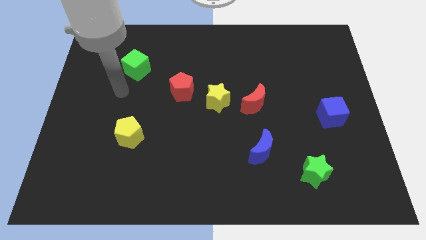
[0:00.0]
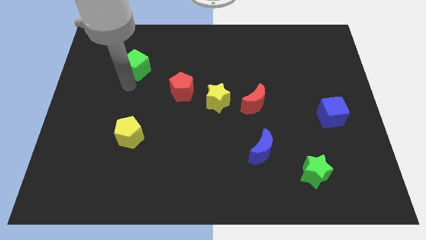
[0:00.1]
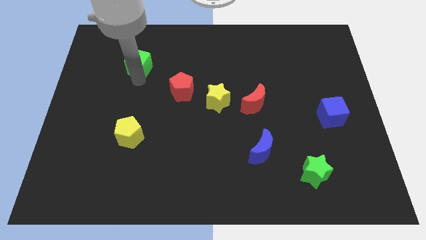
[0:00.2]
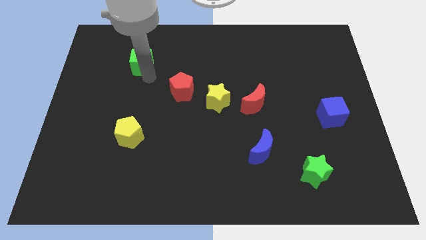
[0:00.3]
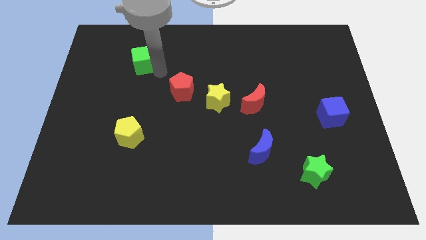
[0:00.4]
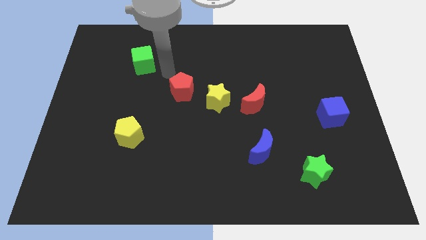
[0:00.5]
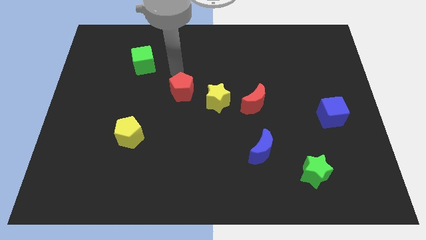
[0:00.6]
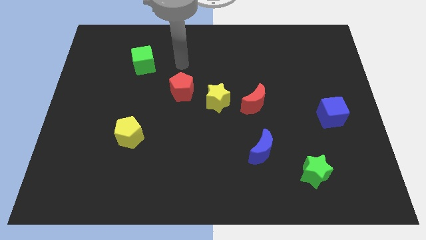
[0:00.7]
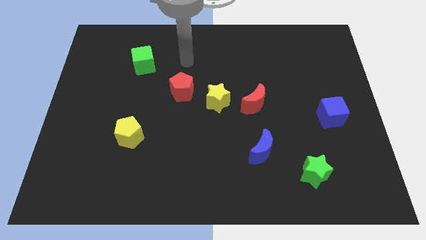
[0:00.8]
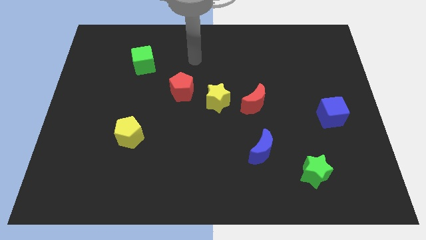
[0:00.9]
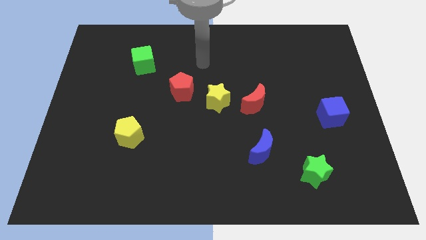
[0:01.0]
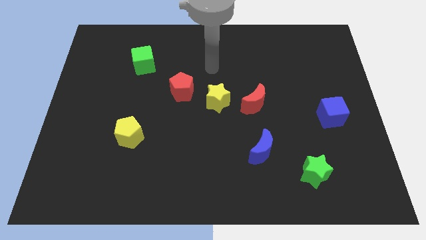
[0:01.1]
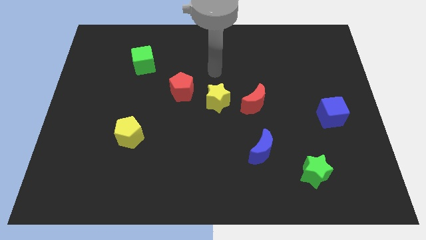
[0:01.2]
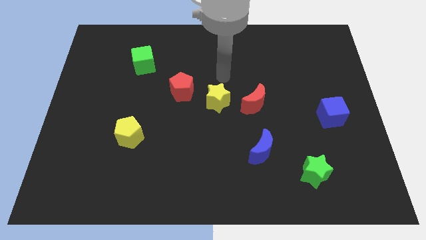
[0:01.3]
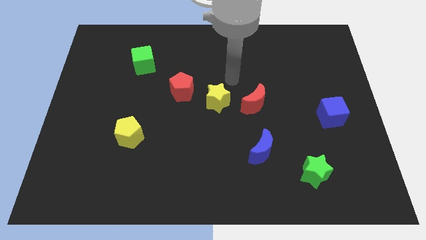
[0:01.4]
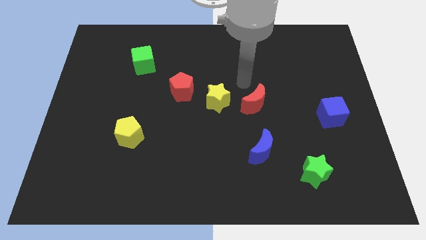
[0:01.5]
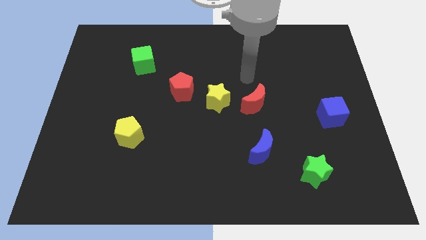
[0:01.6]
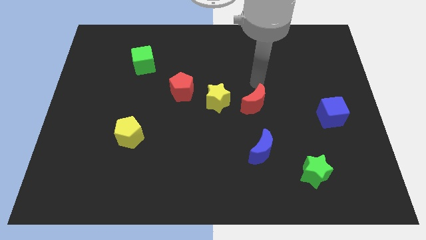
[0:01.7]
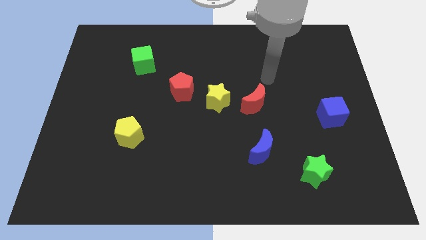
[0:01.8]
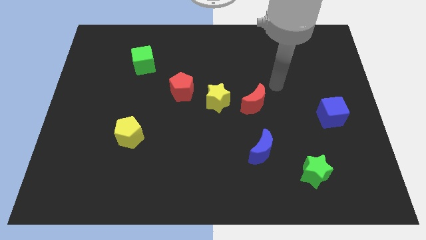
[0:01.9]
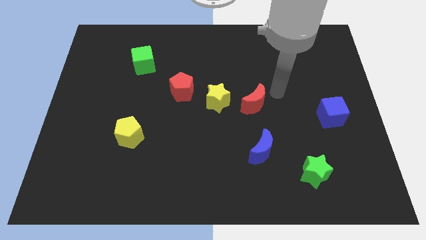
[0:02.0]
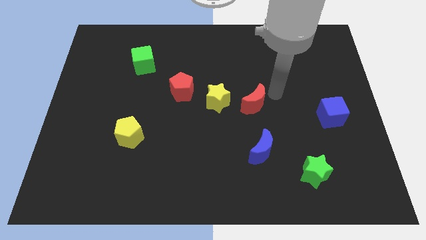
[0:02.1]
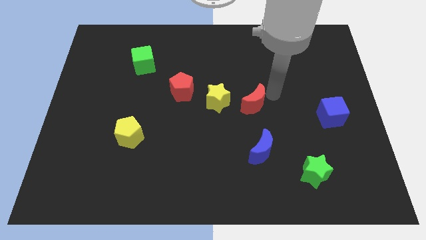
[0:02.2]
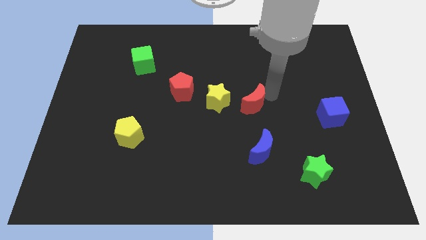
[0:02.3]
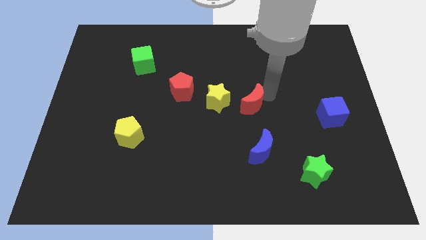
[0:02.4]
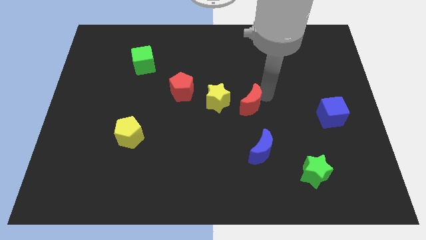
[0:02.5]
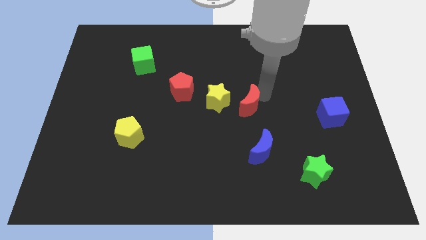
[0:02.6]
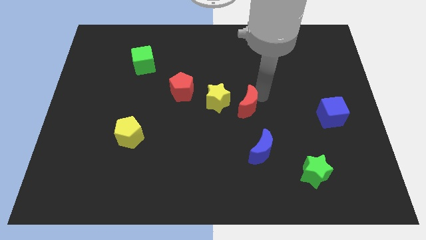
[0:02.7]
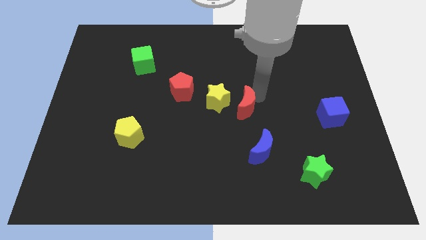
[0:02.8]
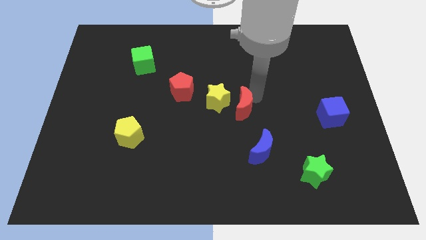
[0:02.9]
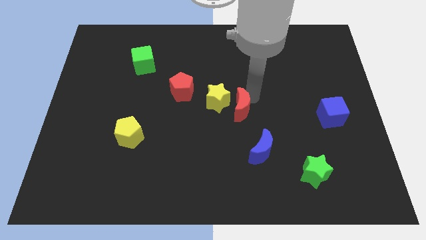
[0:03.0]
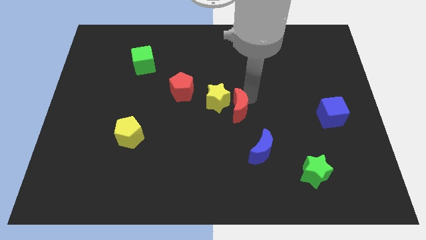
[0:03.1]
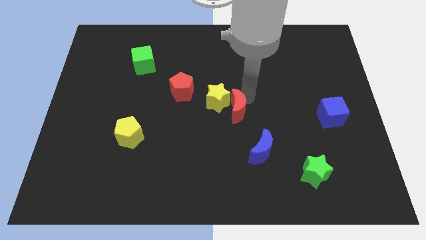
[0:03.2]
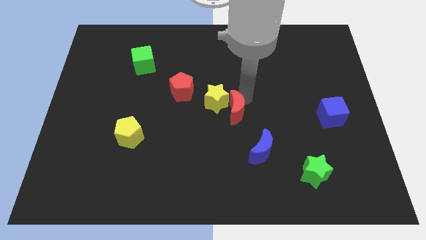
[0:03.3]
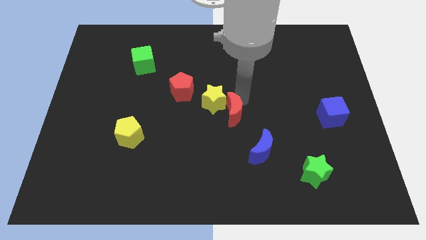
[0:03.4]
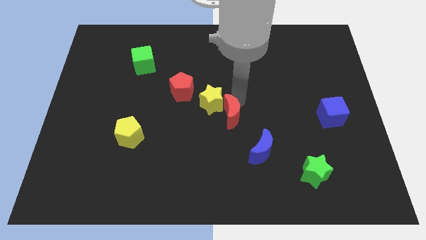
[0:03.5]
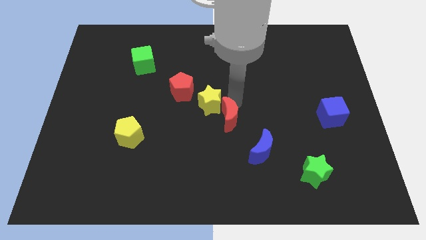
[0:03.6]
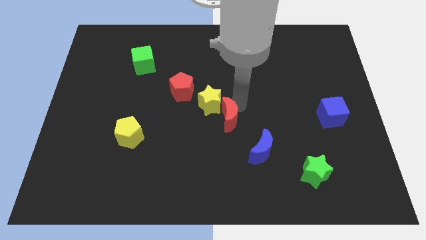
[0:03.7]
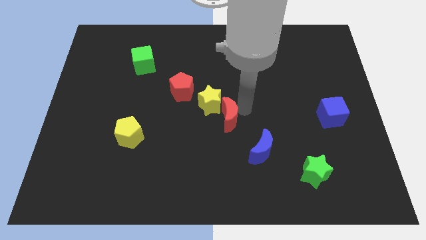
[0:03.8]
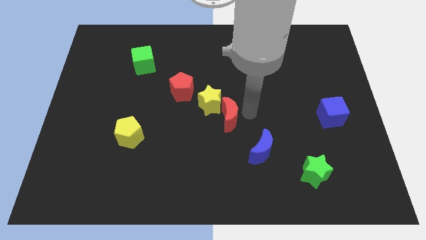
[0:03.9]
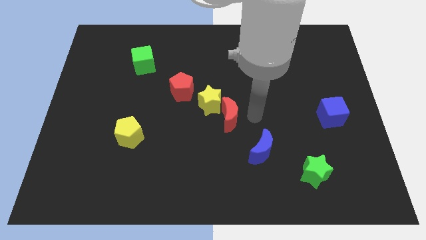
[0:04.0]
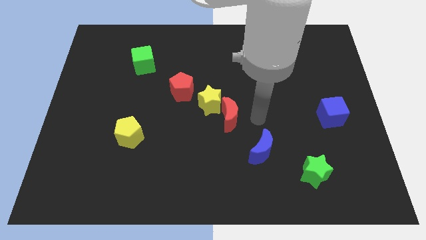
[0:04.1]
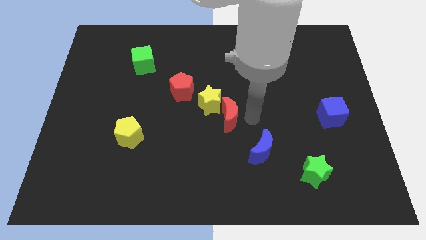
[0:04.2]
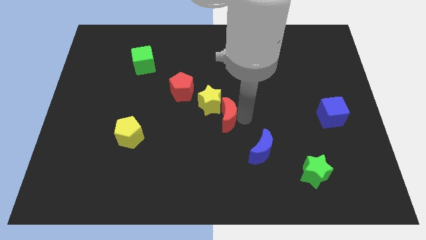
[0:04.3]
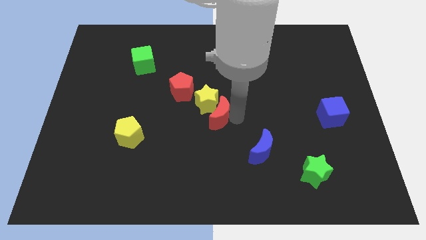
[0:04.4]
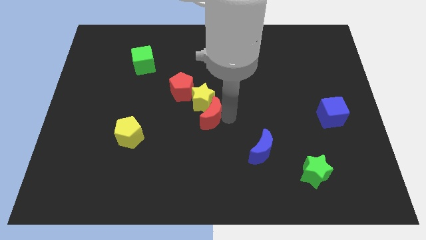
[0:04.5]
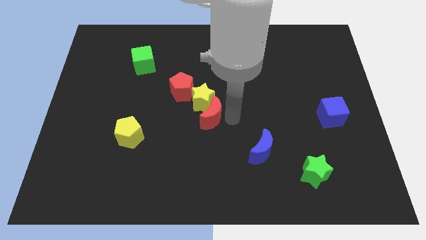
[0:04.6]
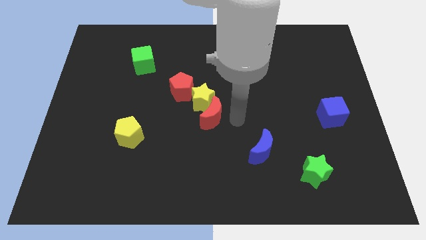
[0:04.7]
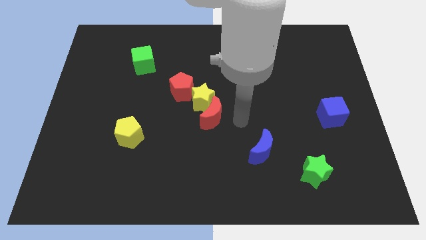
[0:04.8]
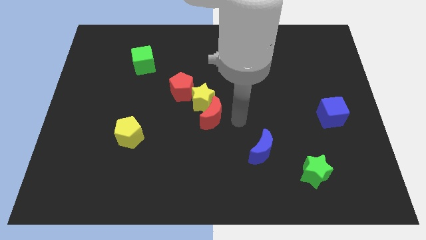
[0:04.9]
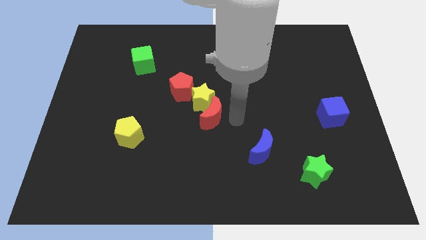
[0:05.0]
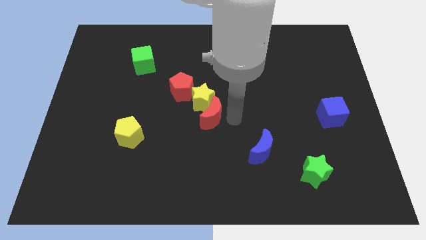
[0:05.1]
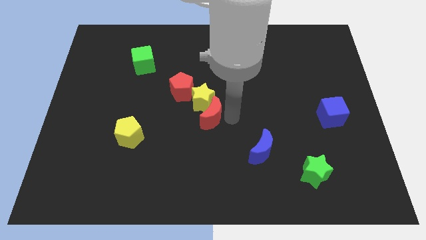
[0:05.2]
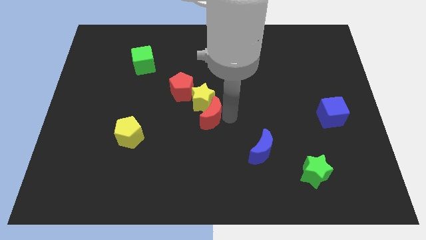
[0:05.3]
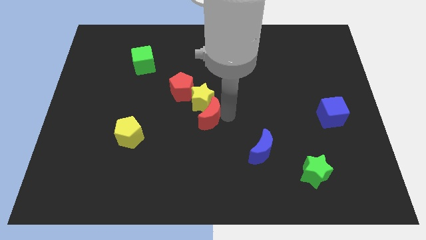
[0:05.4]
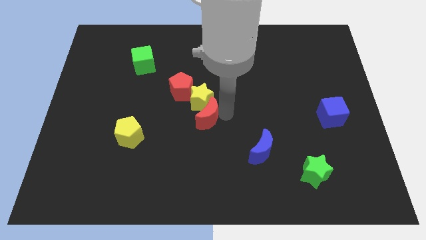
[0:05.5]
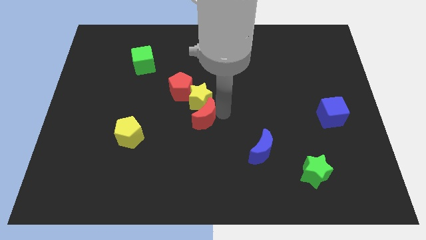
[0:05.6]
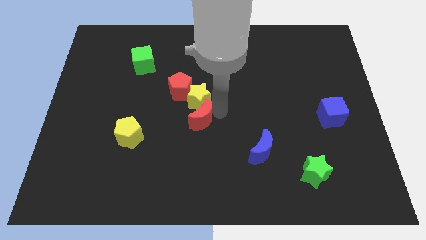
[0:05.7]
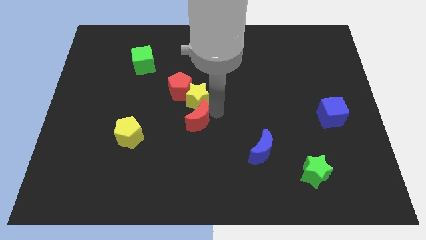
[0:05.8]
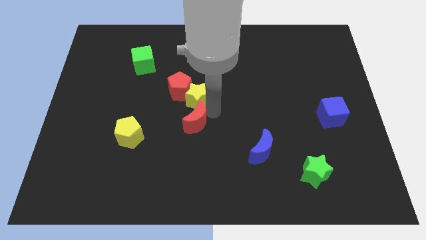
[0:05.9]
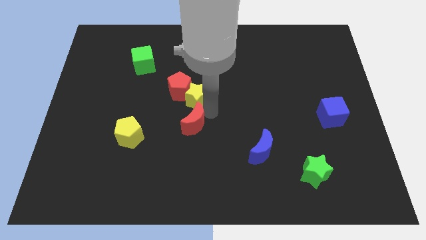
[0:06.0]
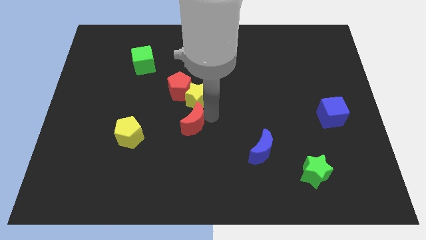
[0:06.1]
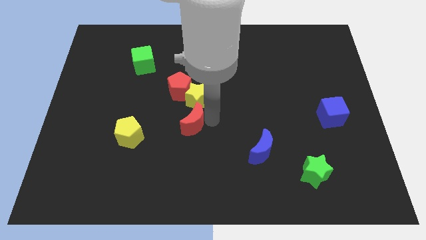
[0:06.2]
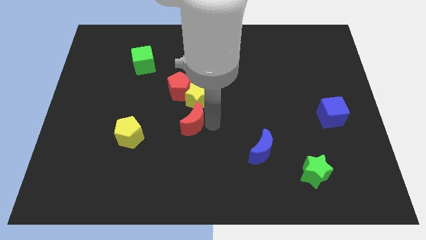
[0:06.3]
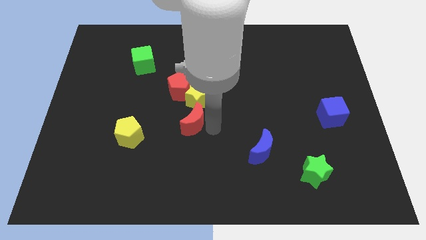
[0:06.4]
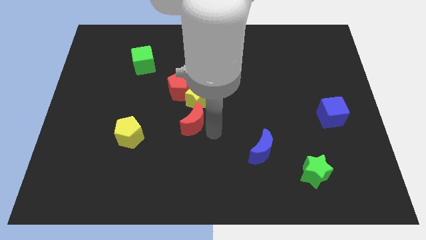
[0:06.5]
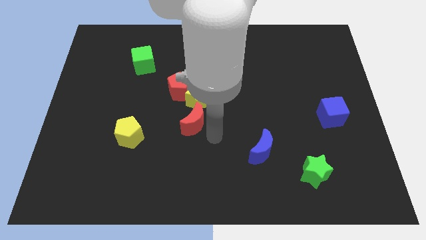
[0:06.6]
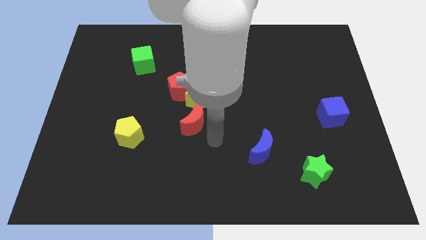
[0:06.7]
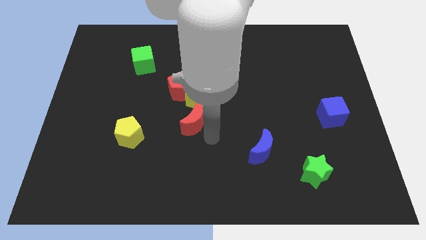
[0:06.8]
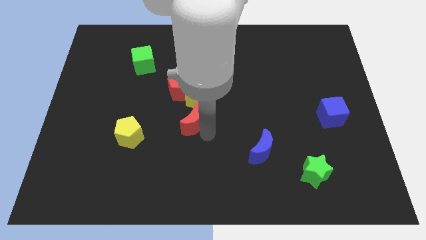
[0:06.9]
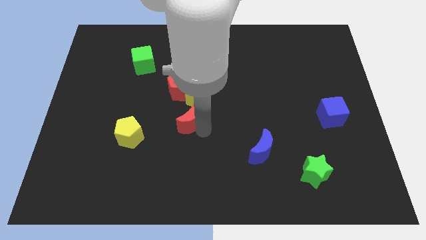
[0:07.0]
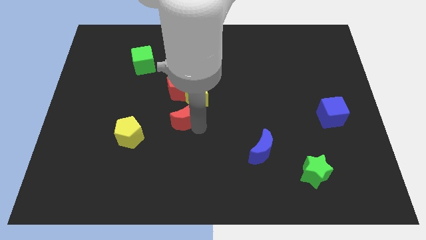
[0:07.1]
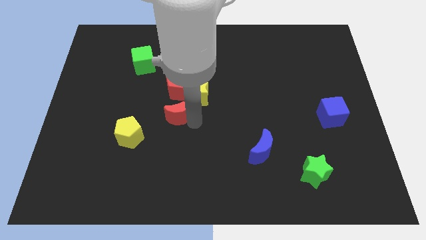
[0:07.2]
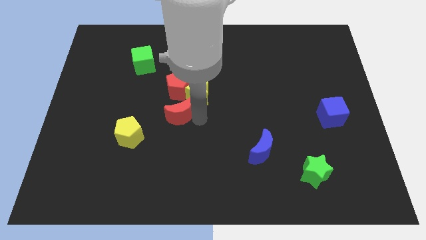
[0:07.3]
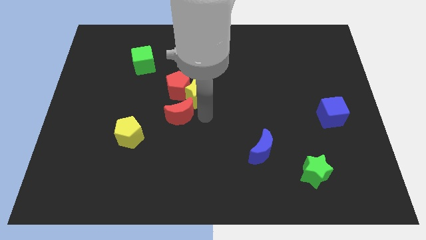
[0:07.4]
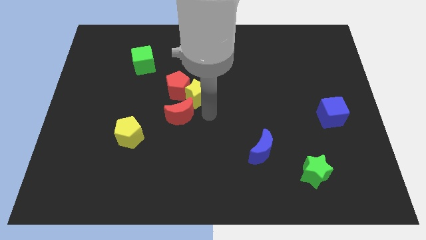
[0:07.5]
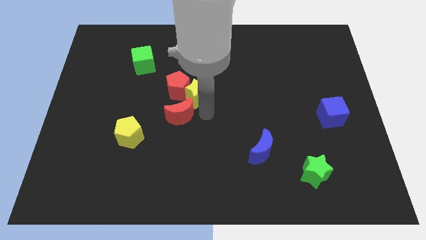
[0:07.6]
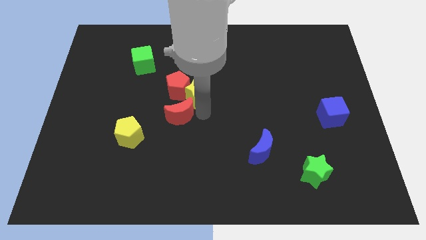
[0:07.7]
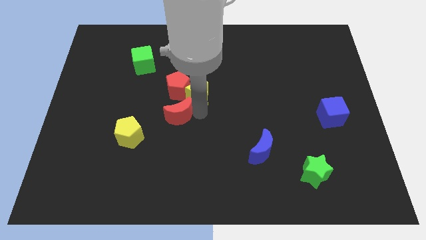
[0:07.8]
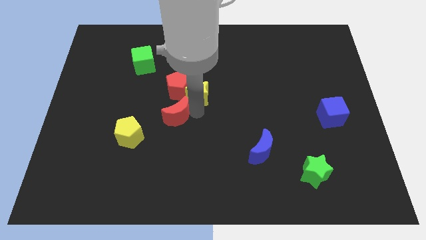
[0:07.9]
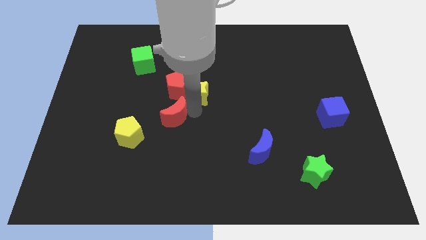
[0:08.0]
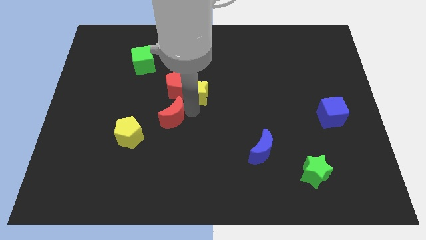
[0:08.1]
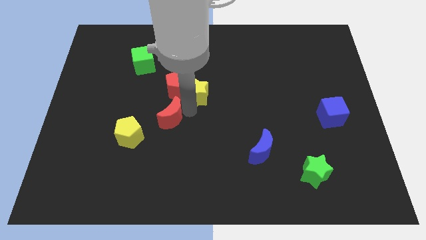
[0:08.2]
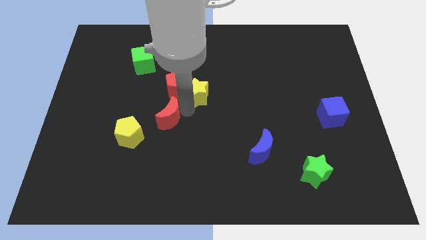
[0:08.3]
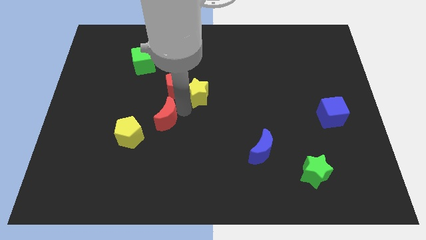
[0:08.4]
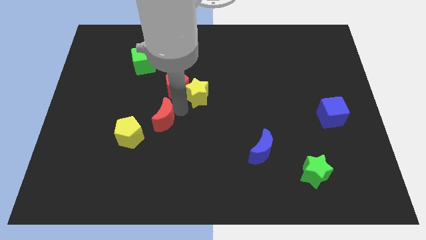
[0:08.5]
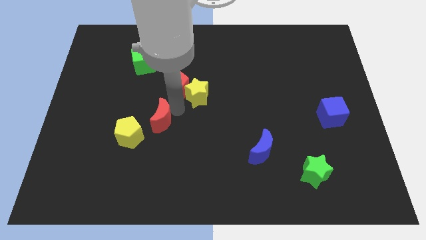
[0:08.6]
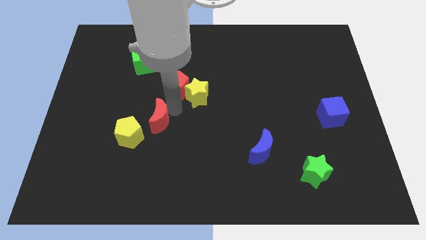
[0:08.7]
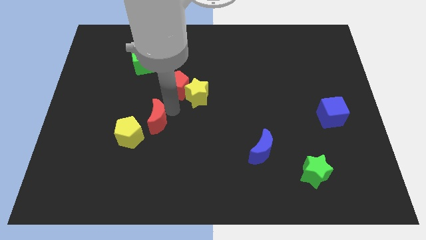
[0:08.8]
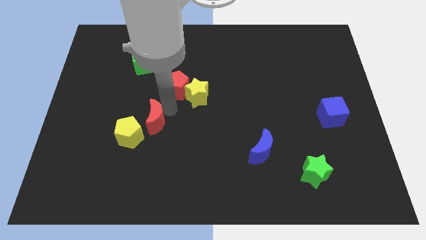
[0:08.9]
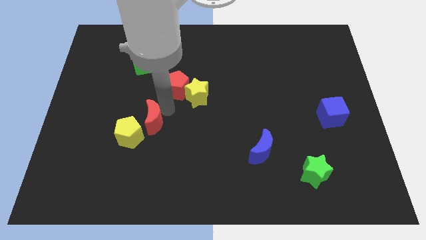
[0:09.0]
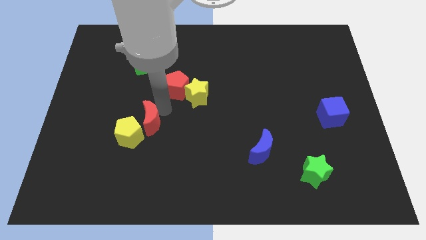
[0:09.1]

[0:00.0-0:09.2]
move the red moon close to the yellow pentagon
